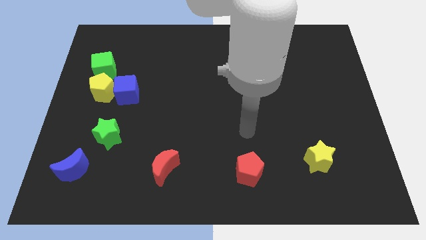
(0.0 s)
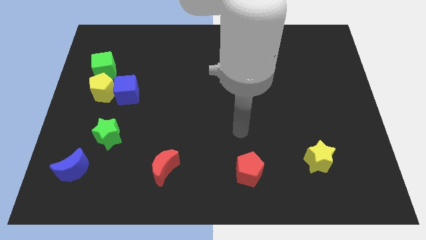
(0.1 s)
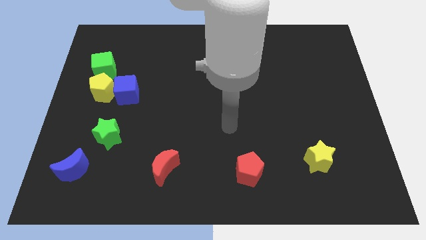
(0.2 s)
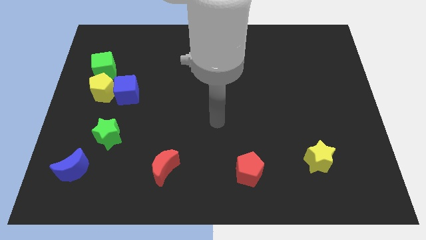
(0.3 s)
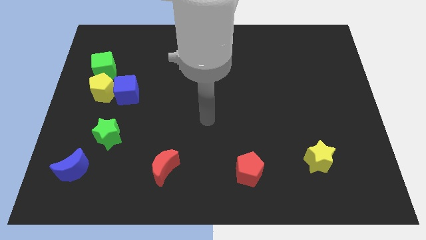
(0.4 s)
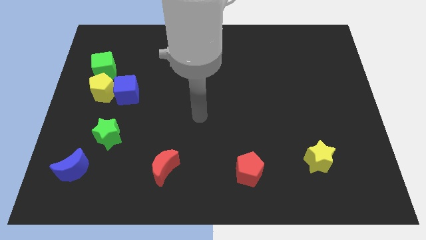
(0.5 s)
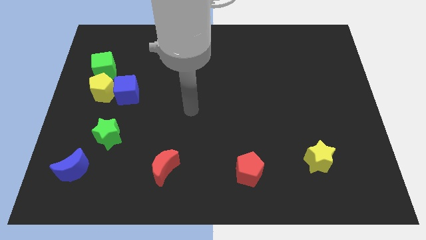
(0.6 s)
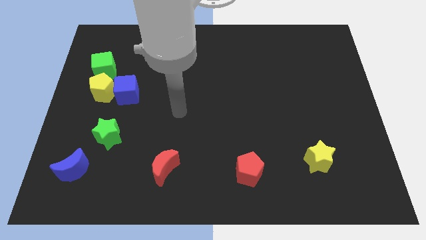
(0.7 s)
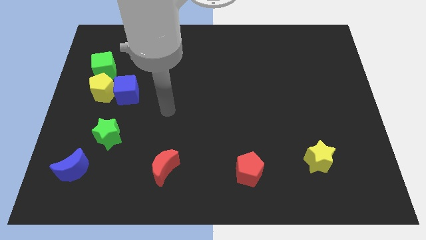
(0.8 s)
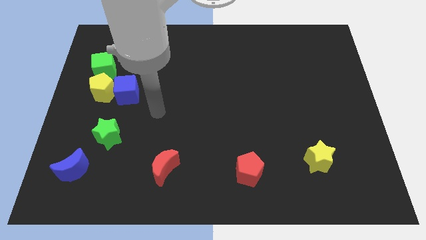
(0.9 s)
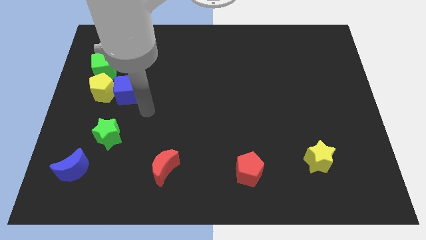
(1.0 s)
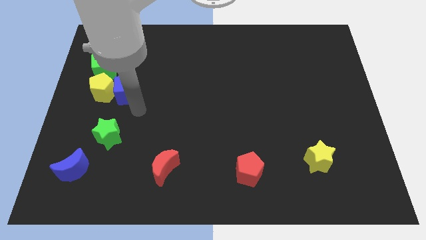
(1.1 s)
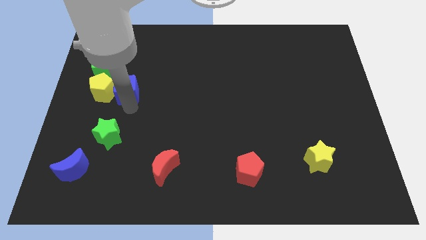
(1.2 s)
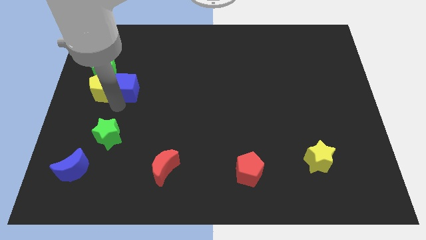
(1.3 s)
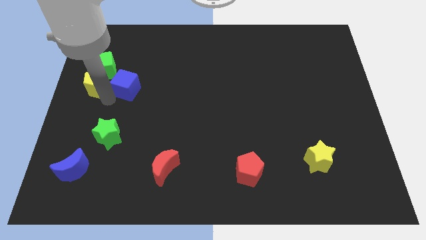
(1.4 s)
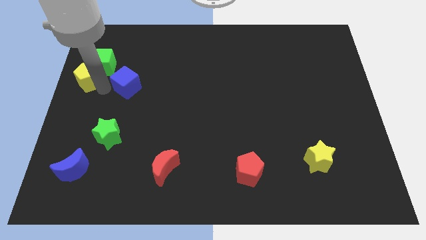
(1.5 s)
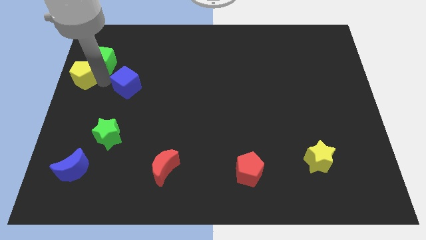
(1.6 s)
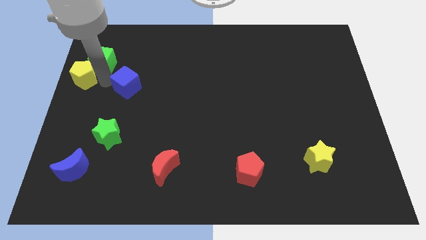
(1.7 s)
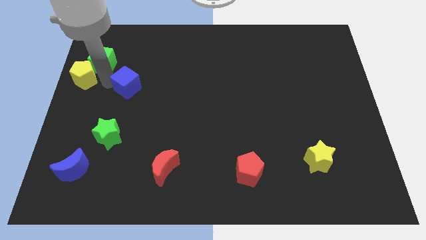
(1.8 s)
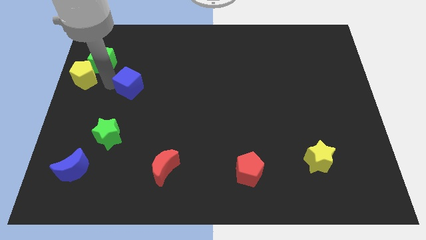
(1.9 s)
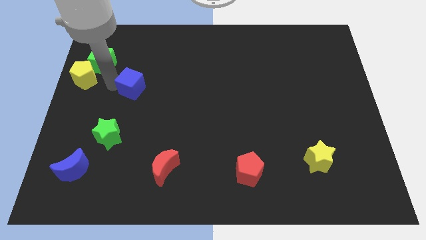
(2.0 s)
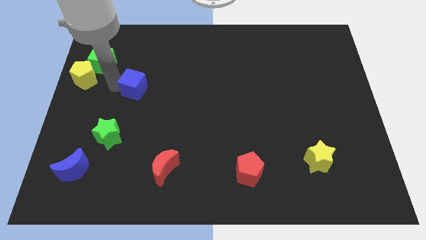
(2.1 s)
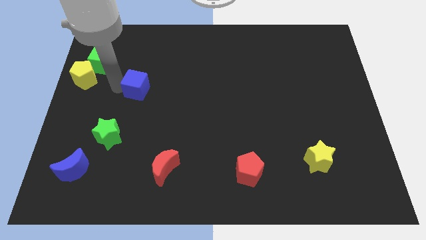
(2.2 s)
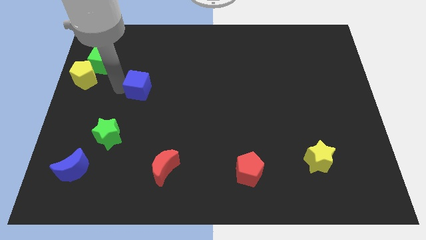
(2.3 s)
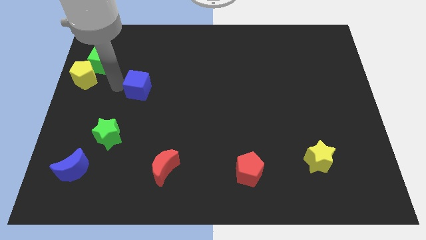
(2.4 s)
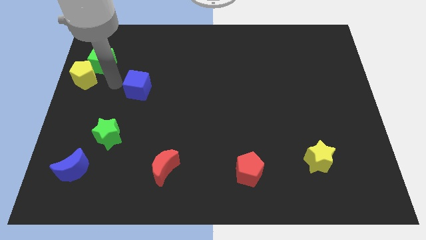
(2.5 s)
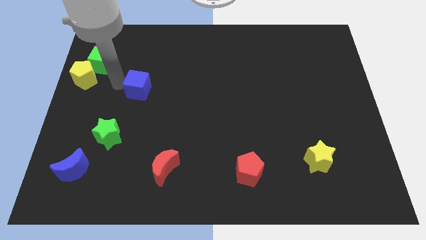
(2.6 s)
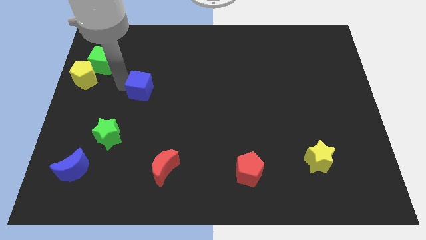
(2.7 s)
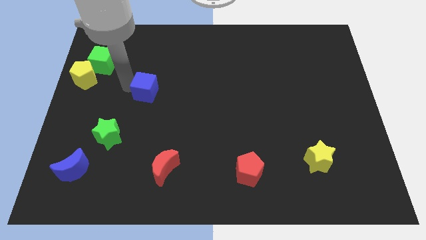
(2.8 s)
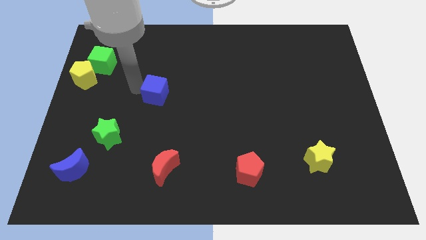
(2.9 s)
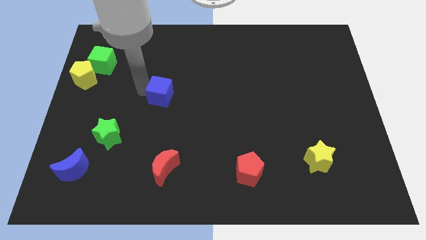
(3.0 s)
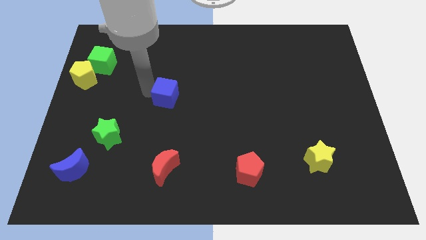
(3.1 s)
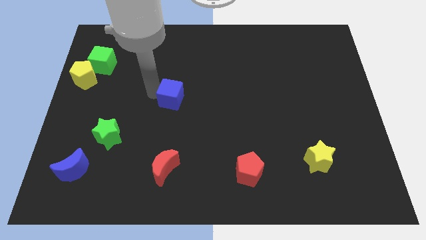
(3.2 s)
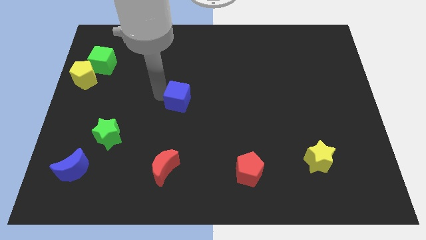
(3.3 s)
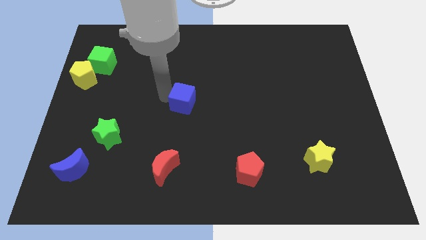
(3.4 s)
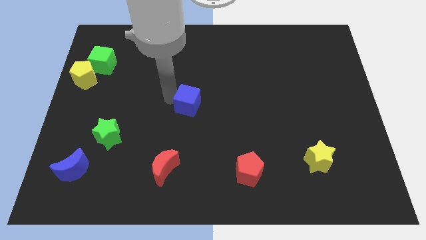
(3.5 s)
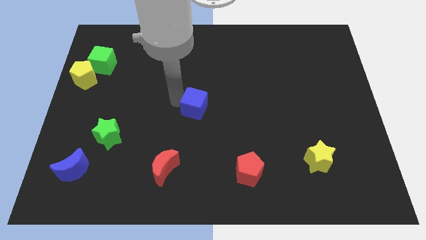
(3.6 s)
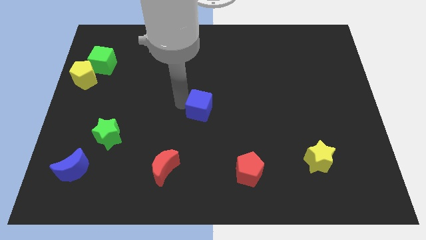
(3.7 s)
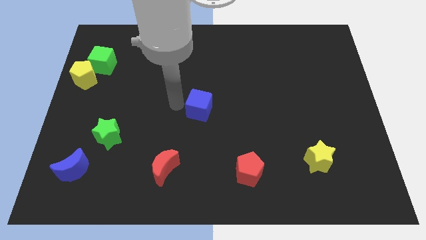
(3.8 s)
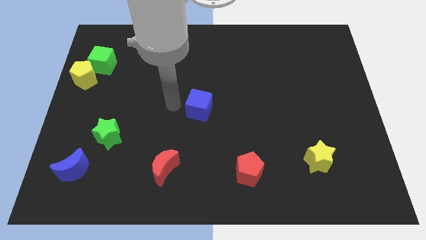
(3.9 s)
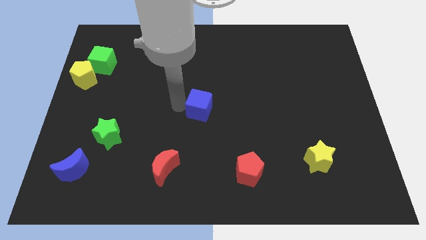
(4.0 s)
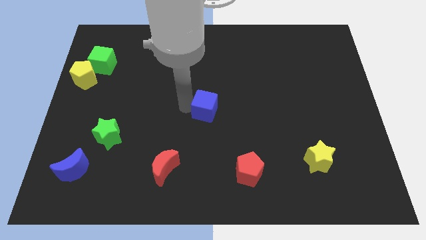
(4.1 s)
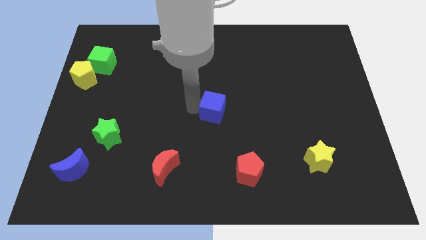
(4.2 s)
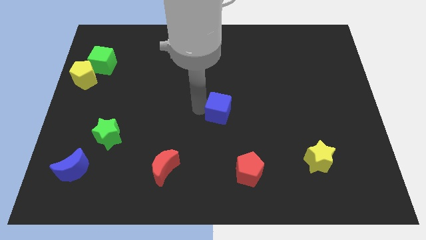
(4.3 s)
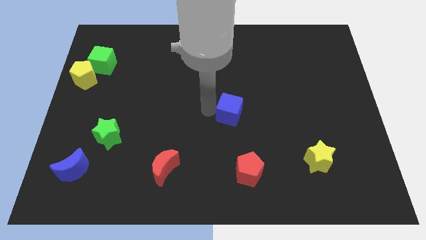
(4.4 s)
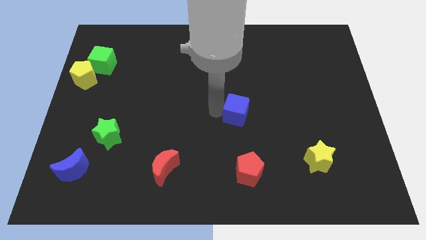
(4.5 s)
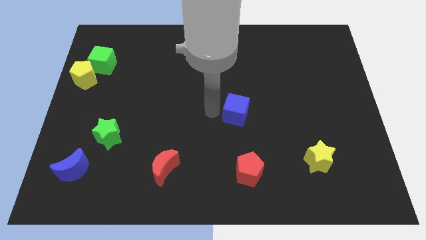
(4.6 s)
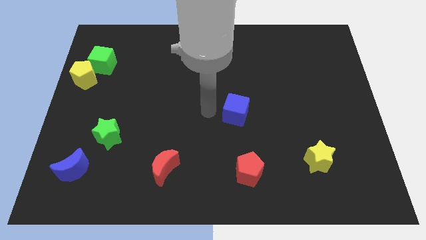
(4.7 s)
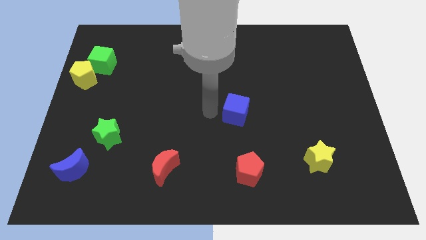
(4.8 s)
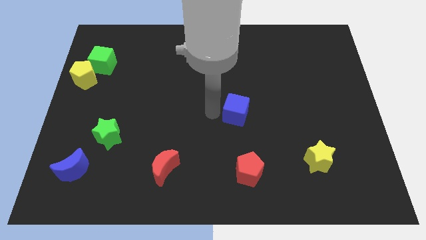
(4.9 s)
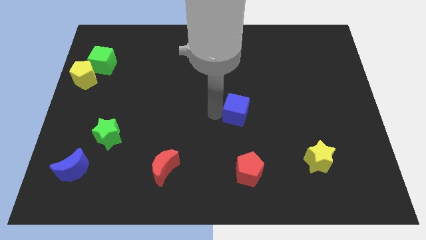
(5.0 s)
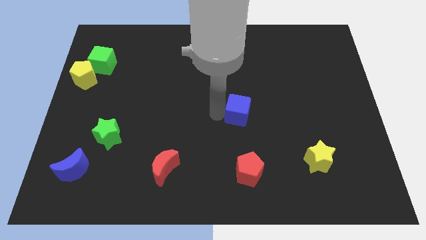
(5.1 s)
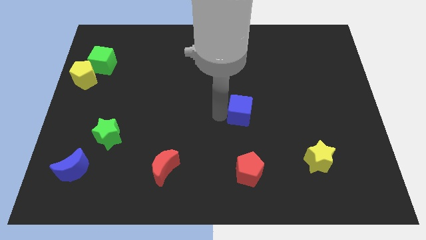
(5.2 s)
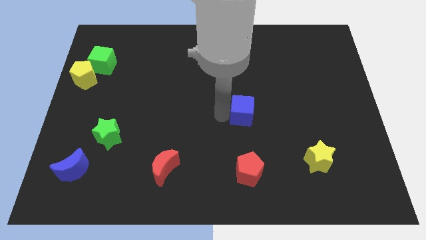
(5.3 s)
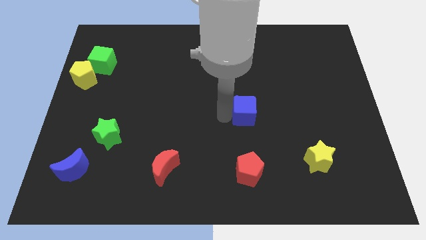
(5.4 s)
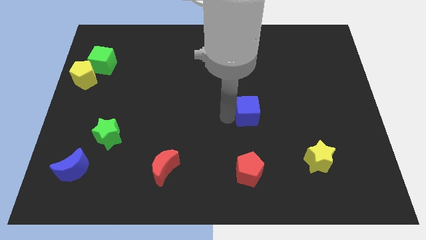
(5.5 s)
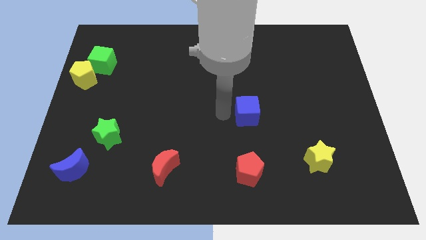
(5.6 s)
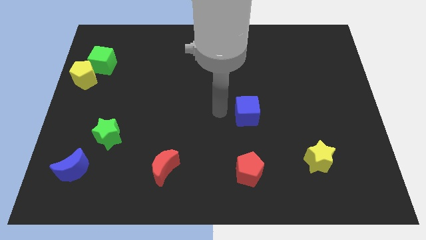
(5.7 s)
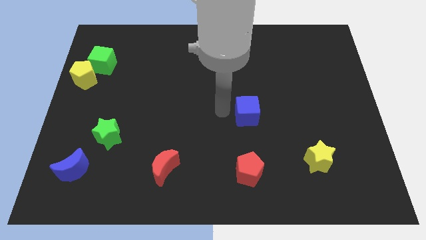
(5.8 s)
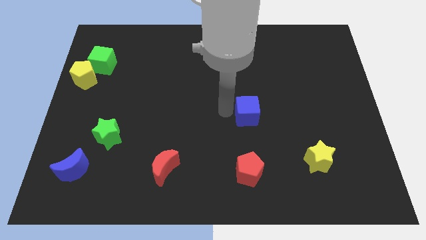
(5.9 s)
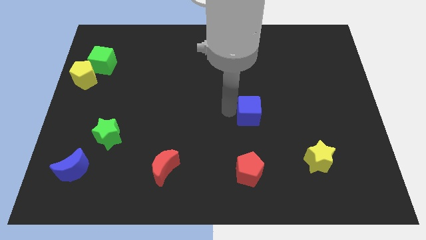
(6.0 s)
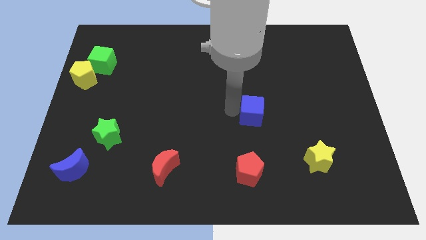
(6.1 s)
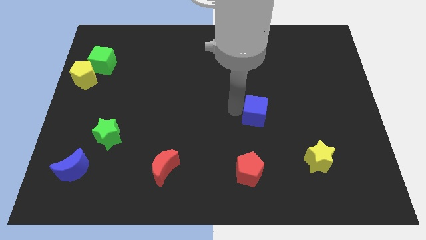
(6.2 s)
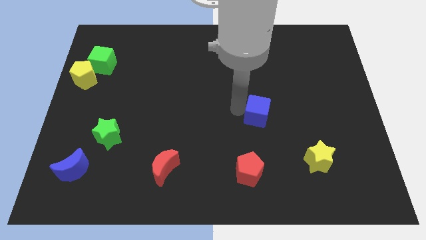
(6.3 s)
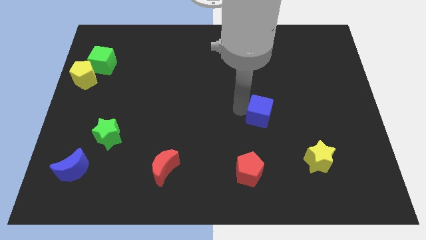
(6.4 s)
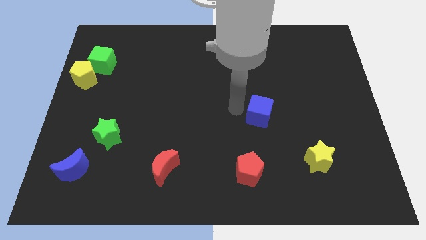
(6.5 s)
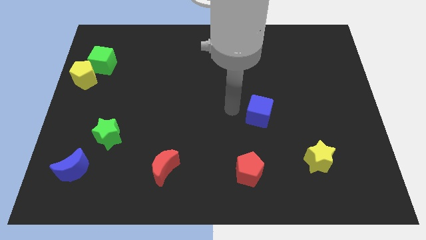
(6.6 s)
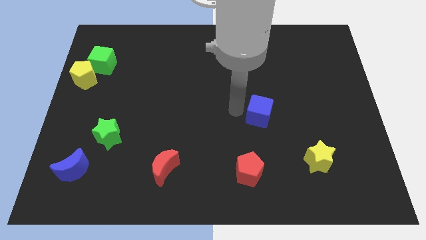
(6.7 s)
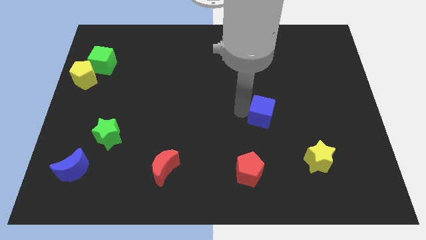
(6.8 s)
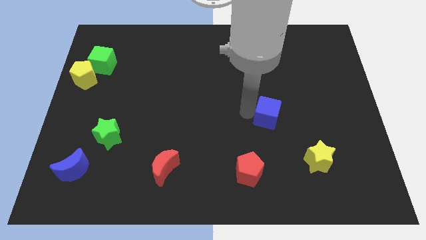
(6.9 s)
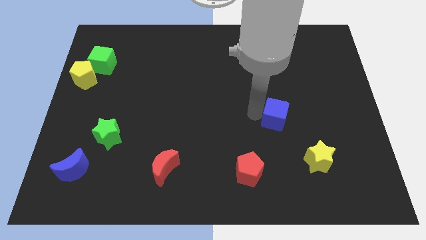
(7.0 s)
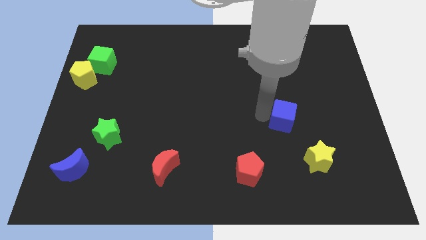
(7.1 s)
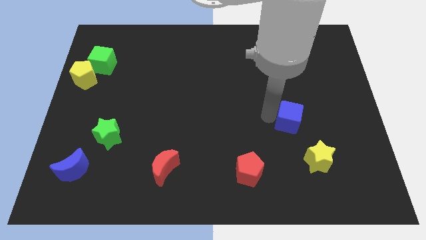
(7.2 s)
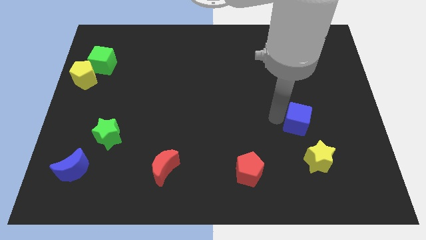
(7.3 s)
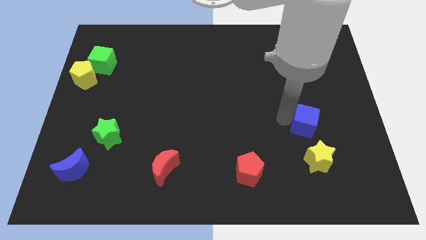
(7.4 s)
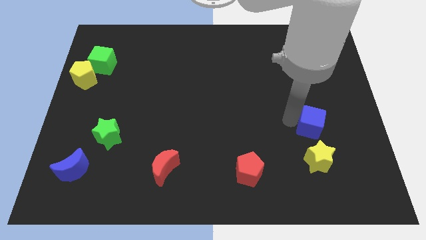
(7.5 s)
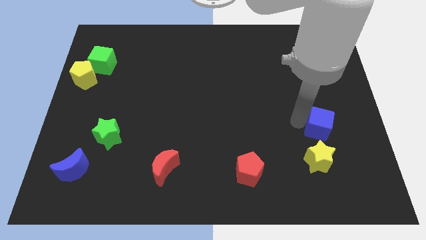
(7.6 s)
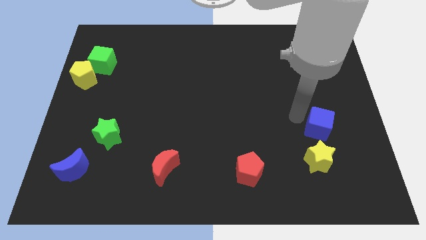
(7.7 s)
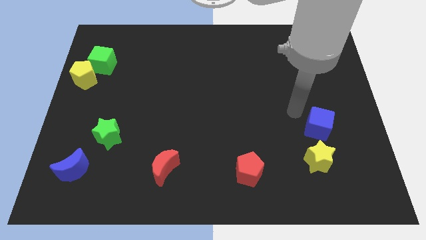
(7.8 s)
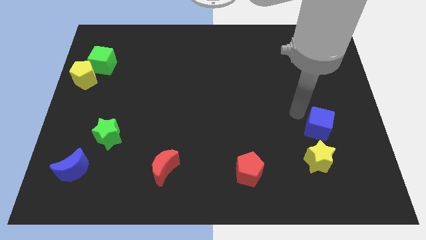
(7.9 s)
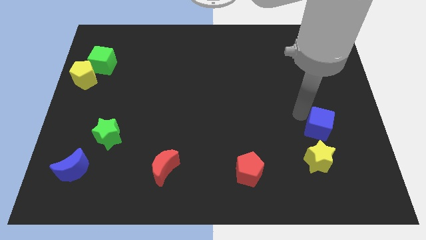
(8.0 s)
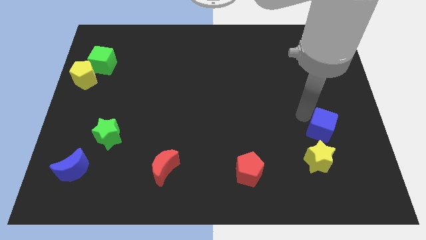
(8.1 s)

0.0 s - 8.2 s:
push the blue cube to the top right side of the yellow star

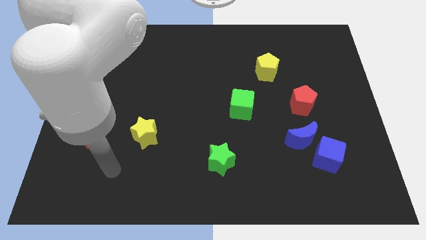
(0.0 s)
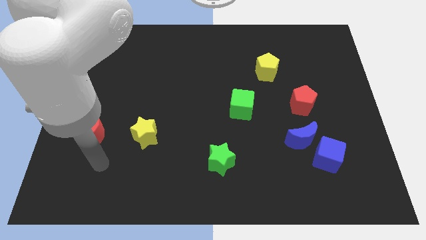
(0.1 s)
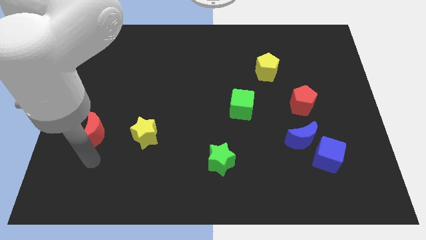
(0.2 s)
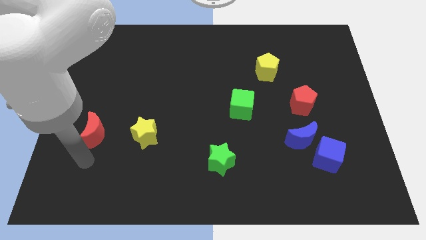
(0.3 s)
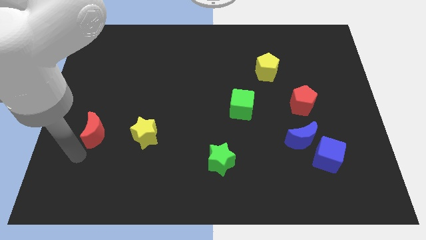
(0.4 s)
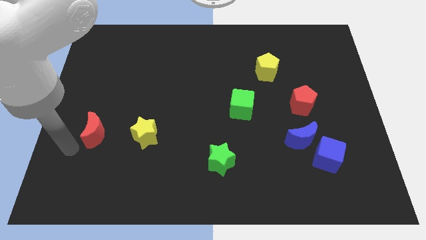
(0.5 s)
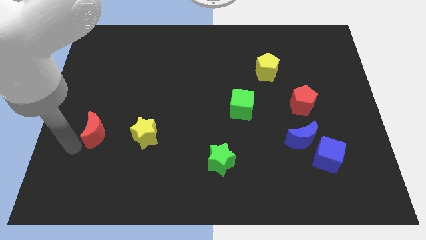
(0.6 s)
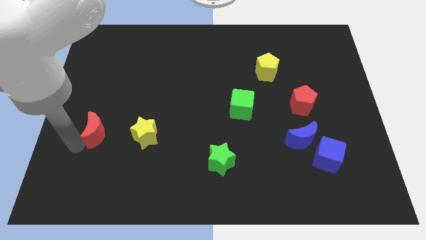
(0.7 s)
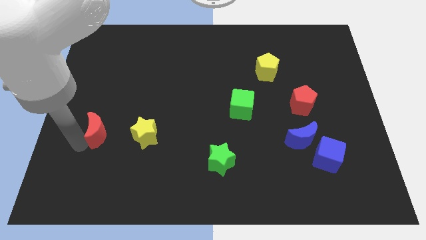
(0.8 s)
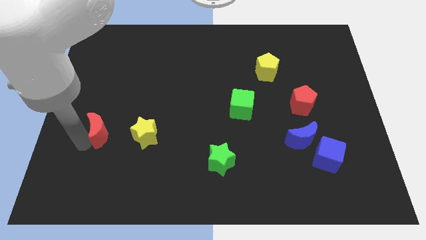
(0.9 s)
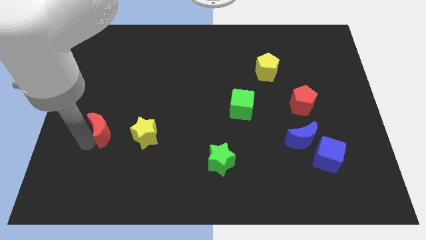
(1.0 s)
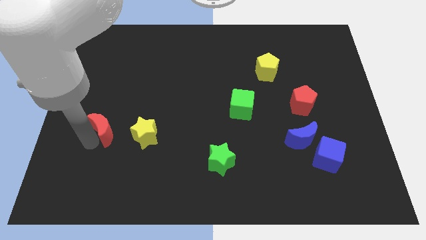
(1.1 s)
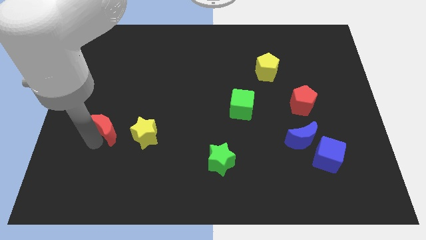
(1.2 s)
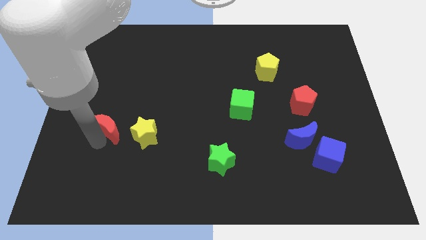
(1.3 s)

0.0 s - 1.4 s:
slide the red moon to the top left side of the yellow star
